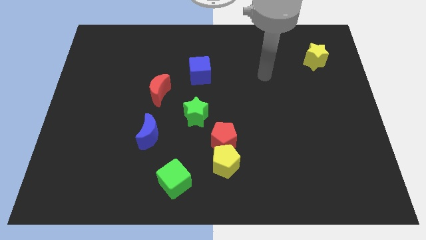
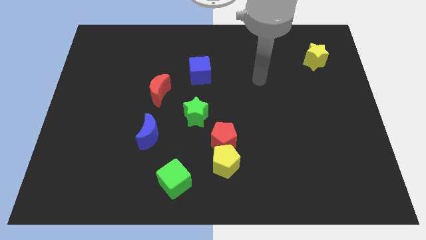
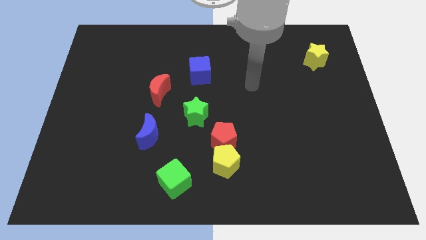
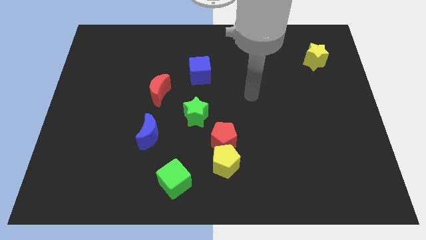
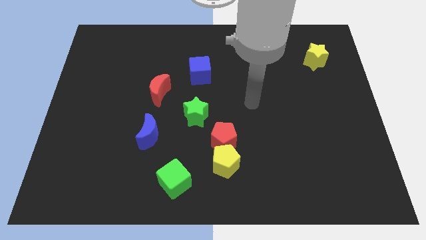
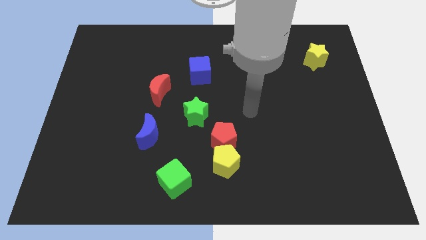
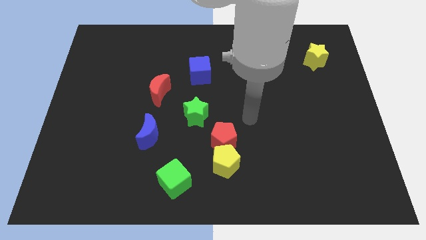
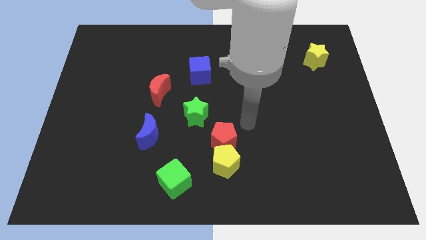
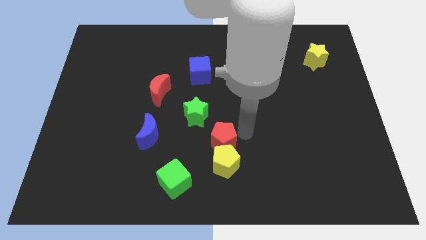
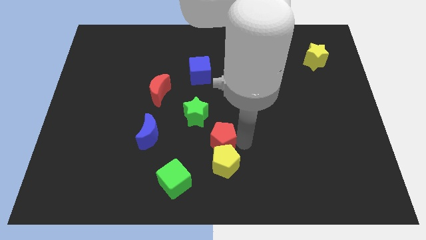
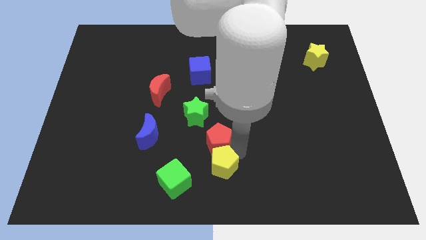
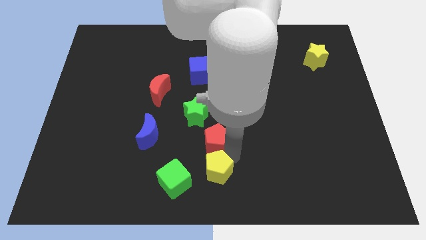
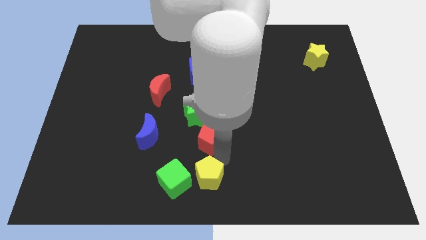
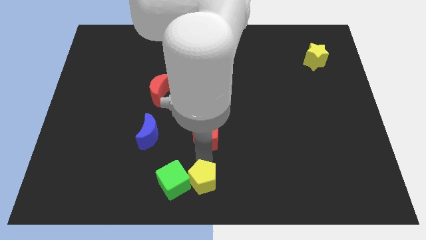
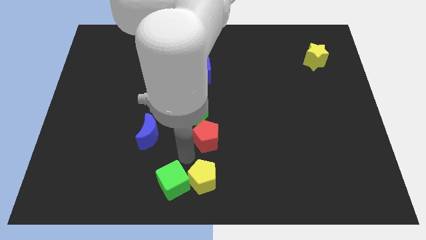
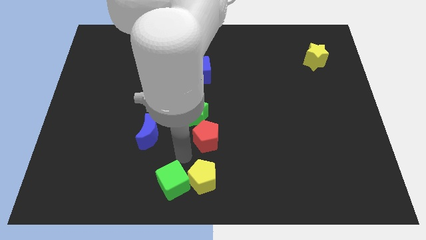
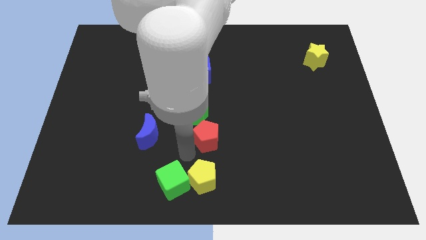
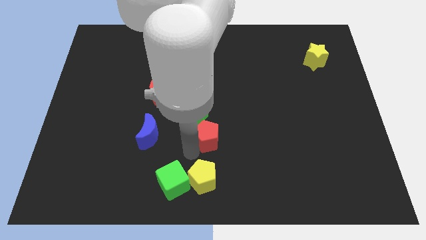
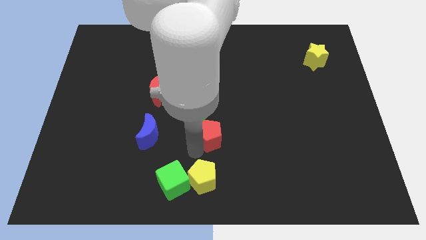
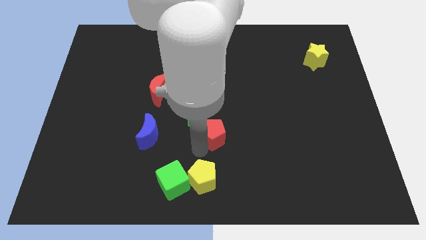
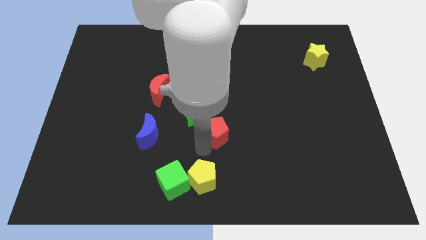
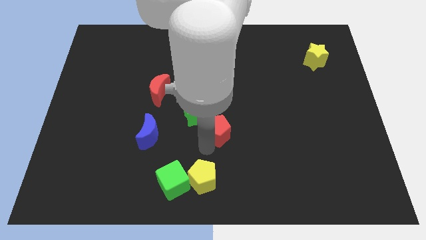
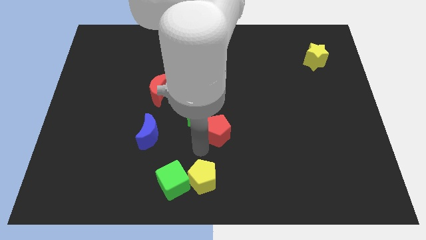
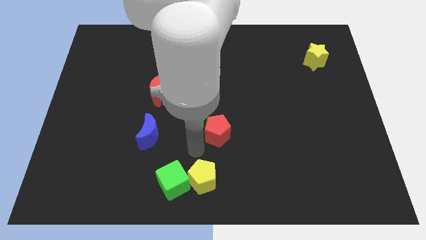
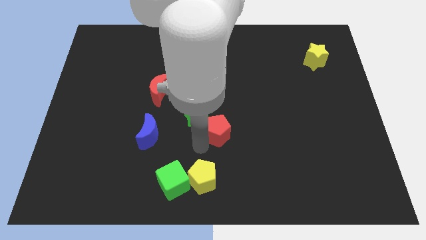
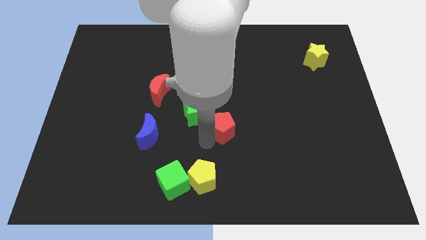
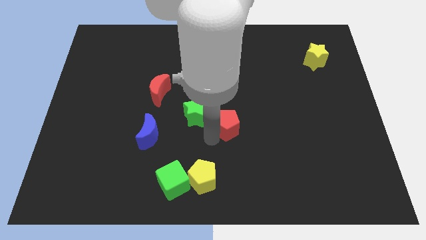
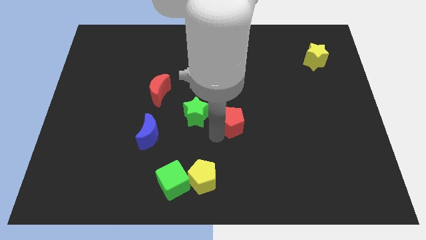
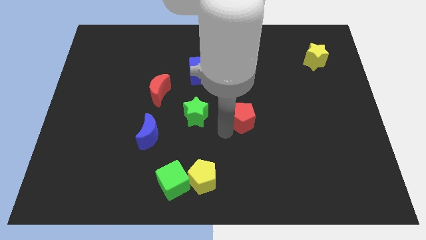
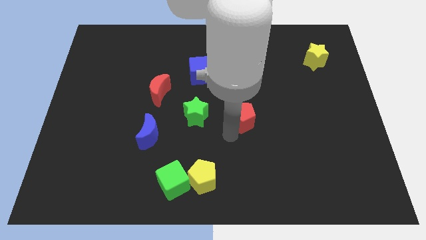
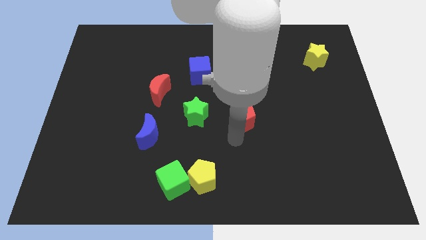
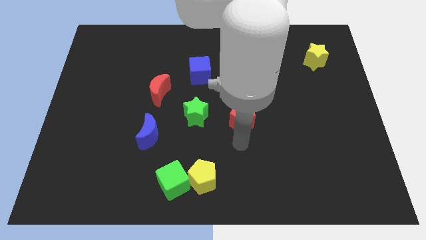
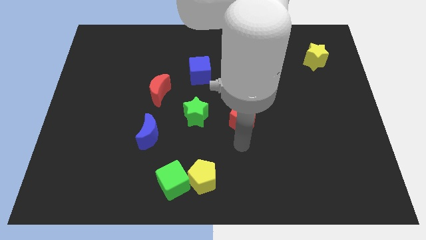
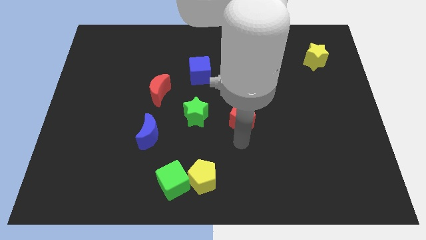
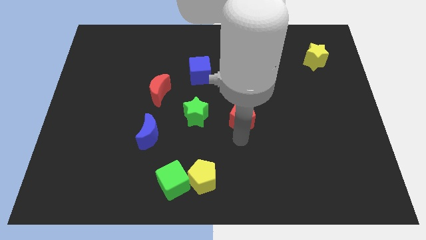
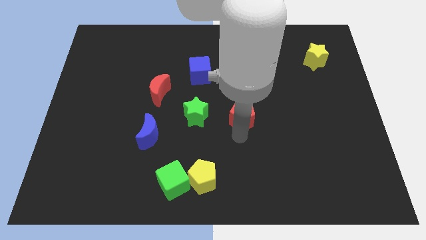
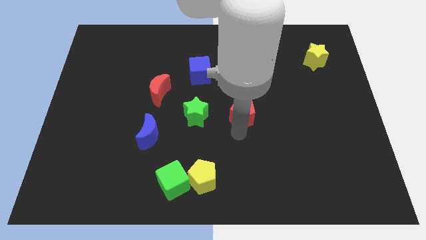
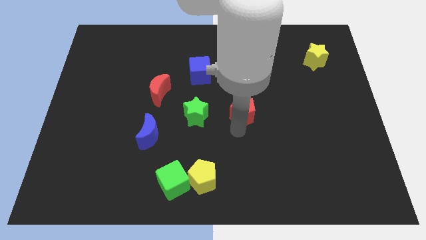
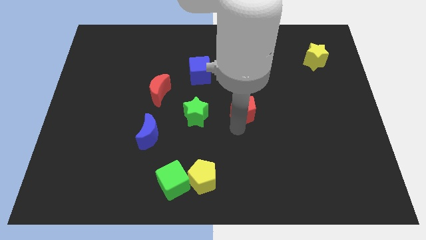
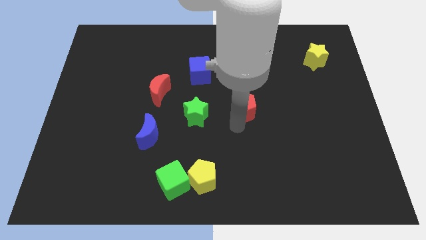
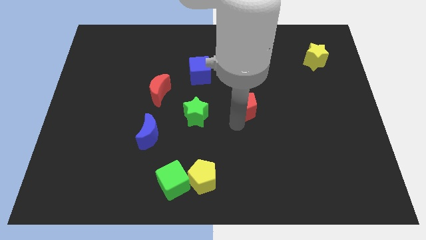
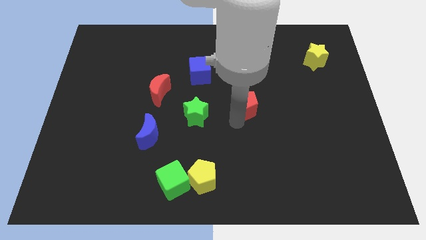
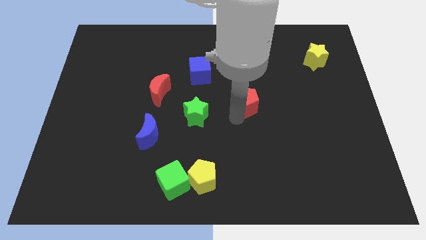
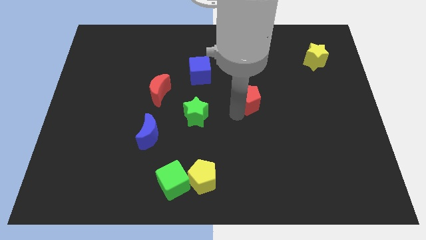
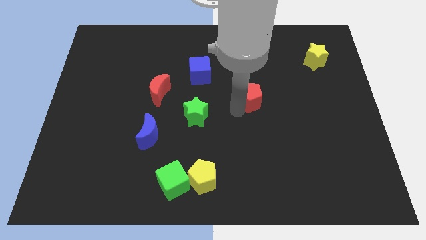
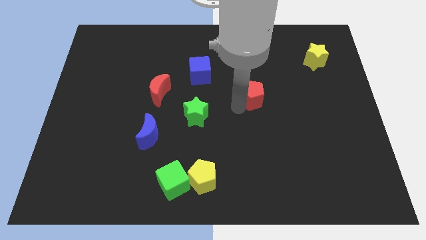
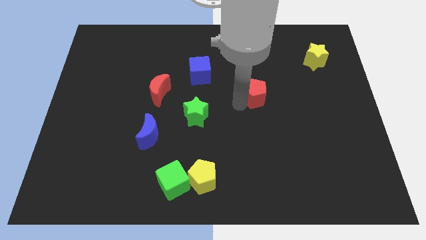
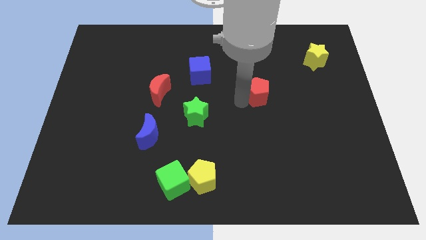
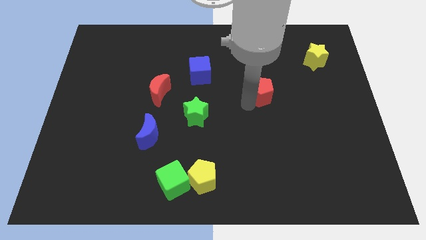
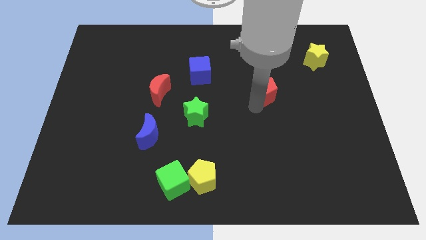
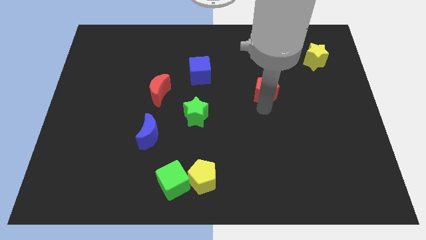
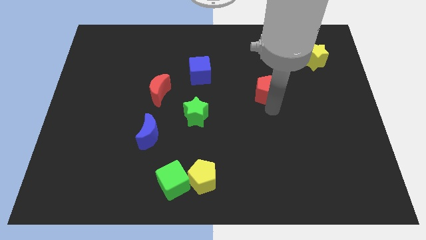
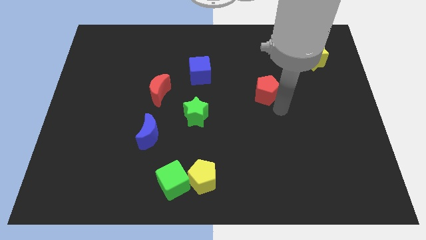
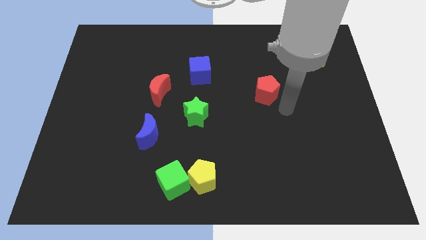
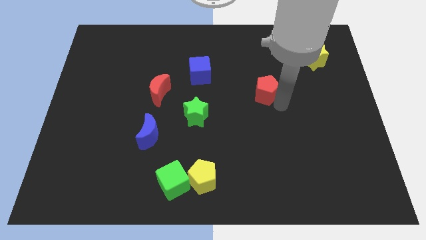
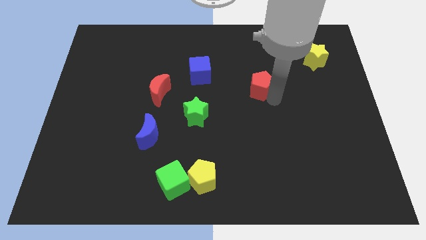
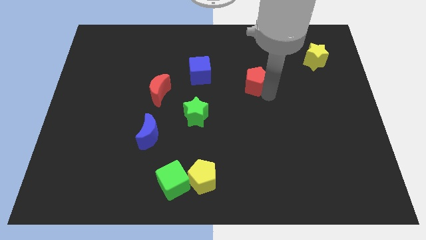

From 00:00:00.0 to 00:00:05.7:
move the red pentagon to the right side of the blue cube

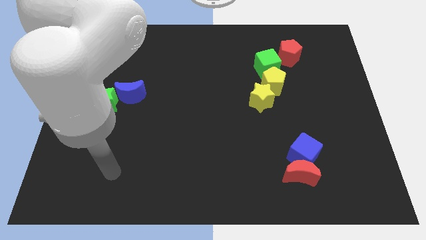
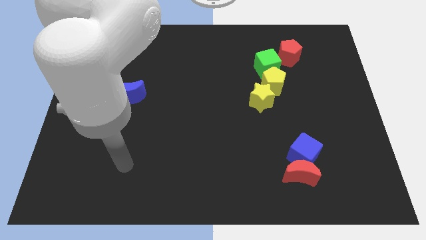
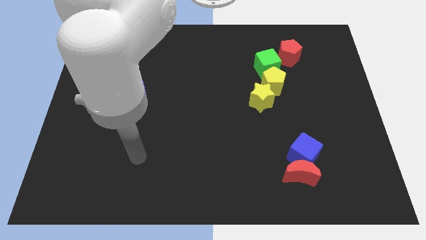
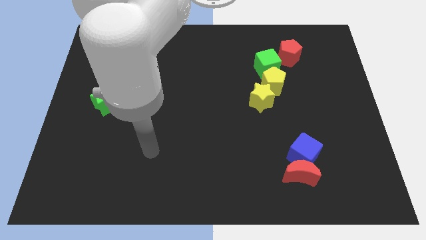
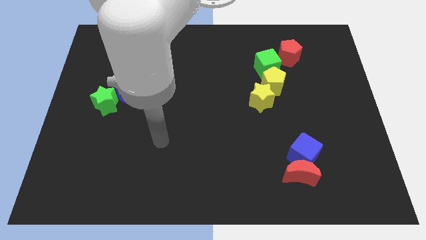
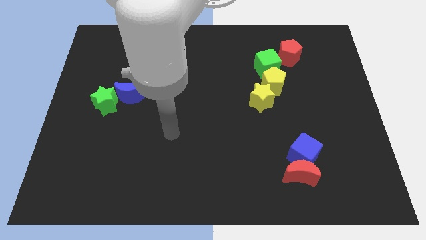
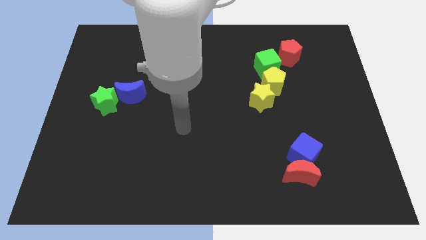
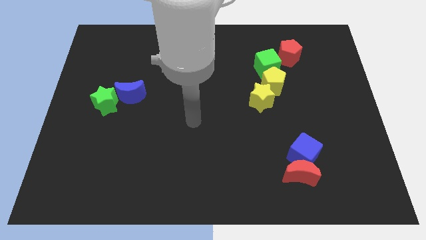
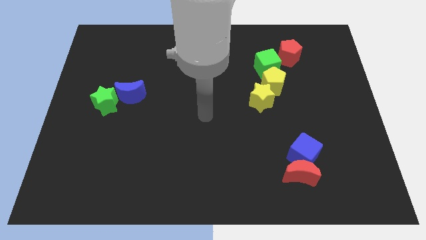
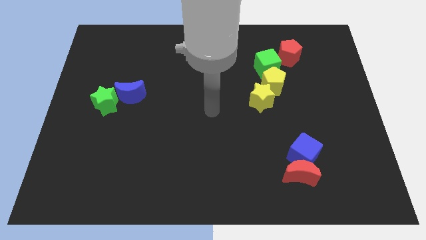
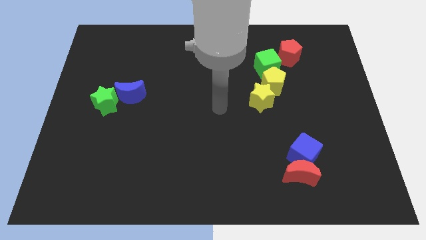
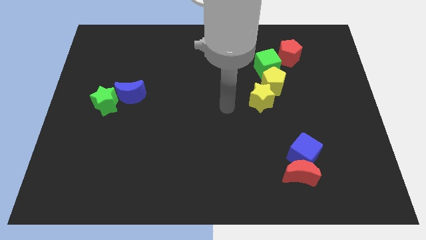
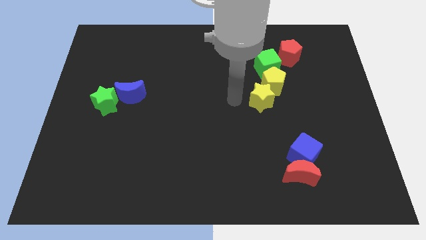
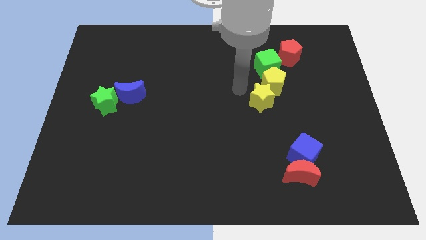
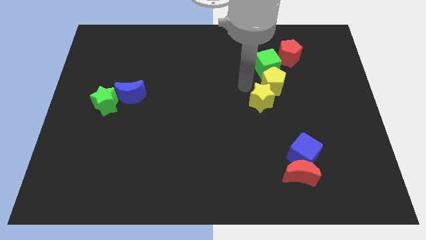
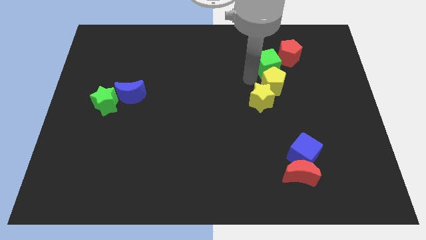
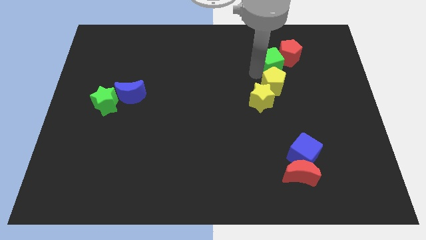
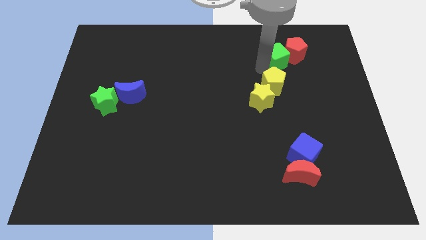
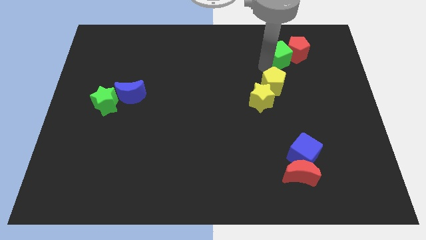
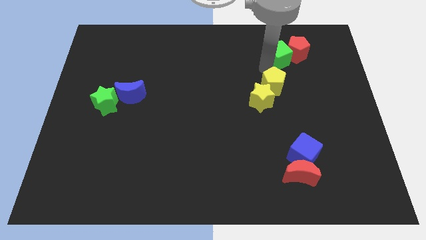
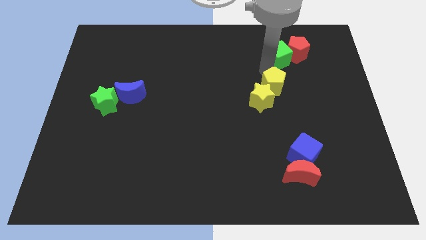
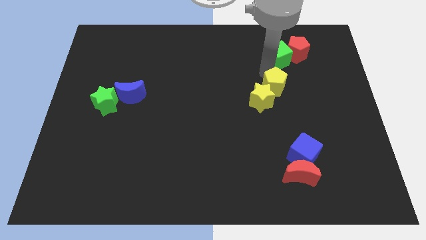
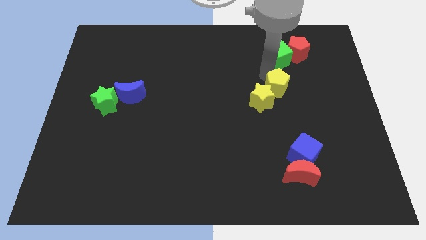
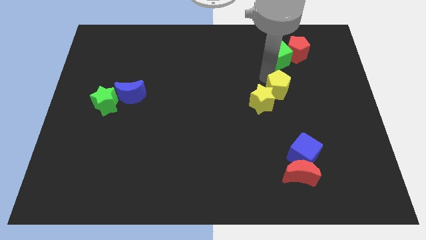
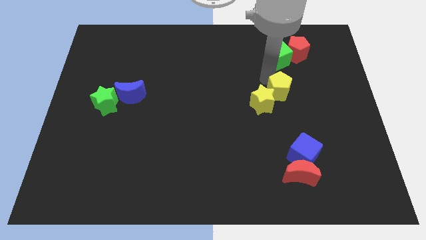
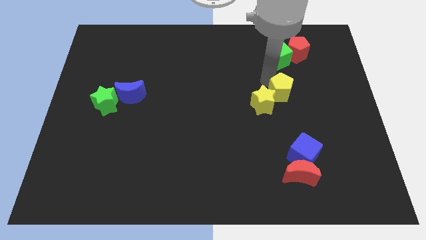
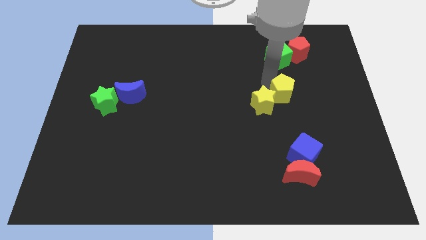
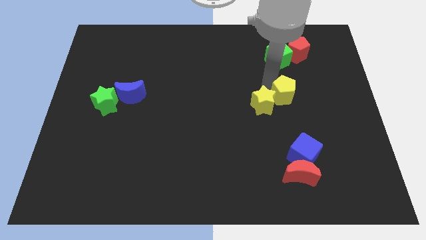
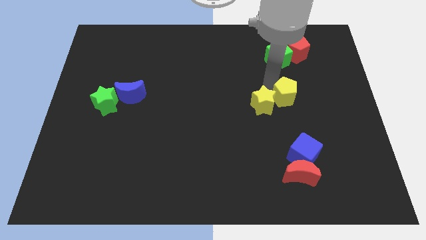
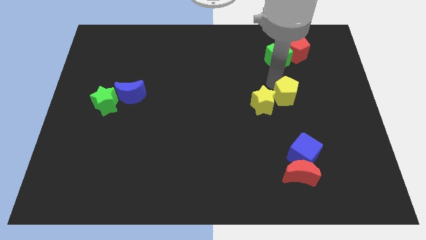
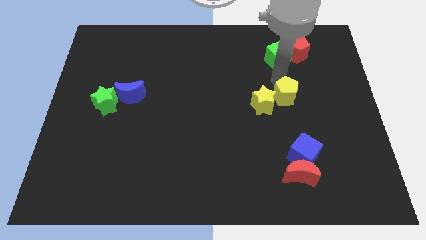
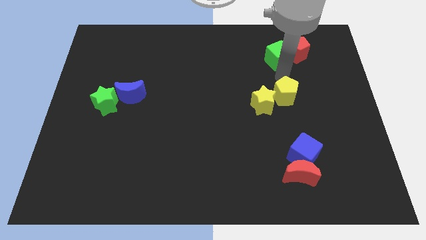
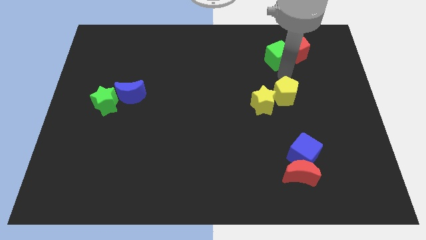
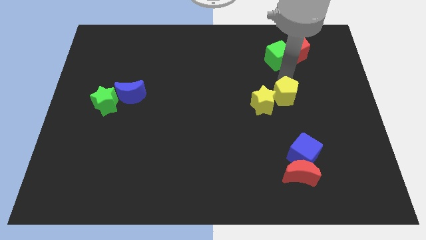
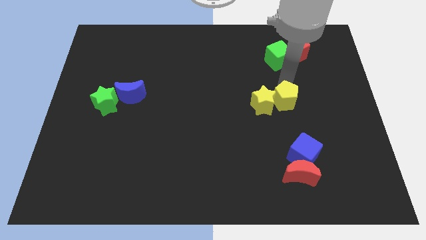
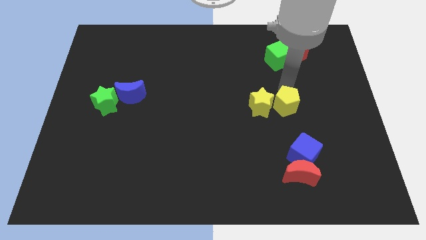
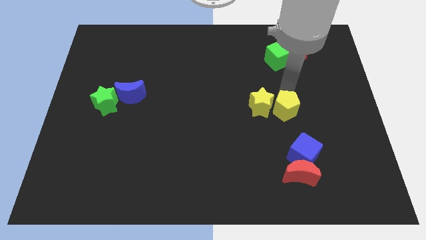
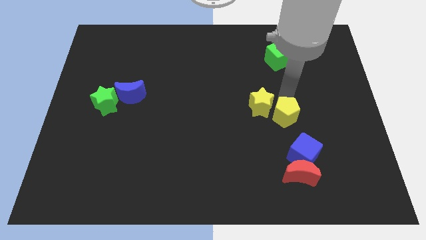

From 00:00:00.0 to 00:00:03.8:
put the yellow pentagon to the top side of the red moon
